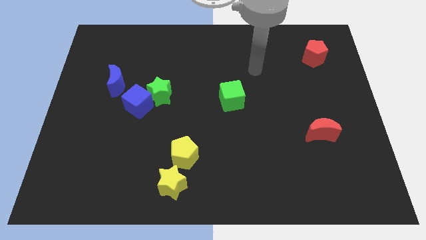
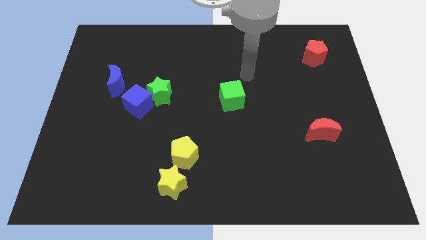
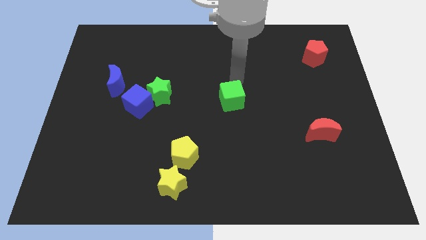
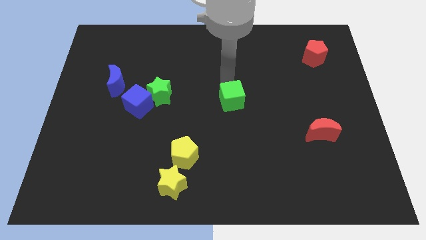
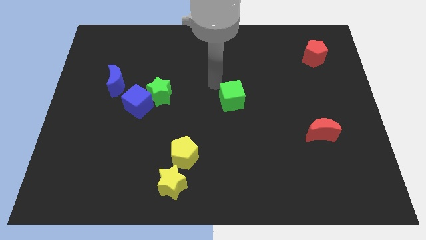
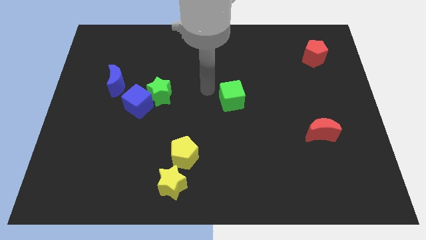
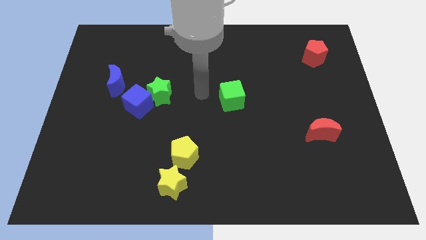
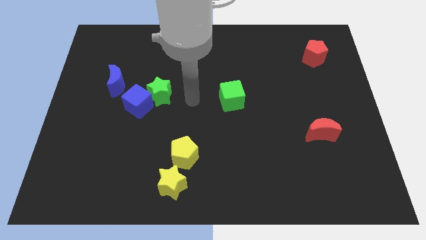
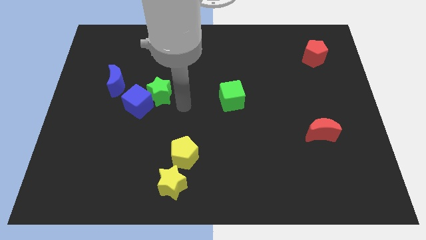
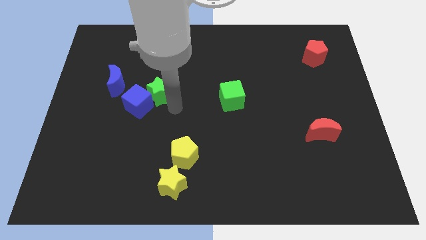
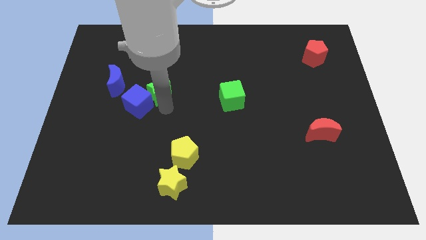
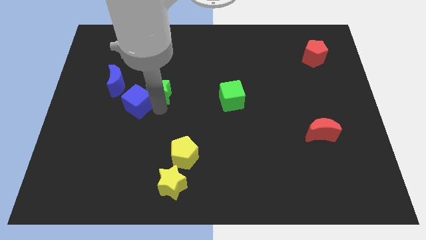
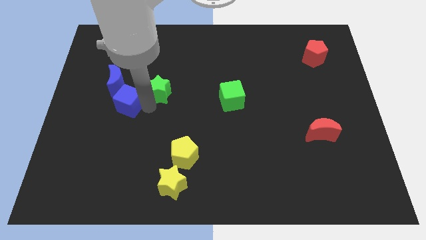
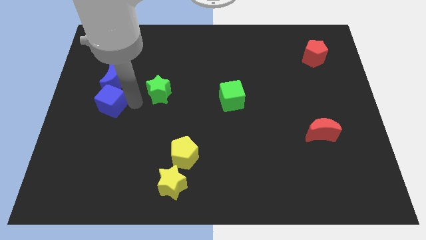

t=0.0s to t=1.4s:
move the green star away from the blue cube

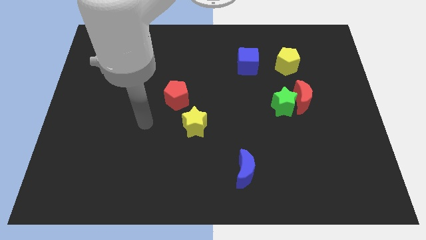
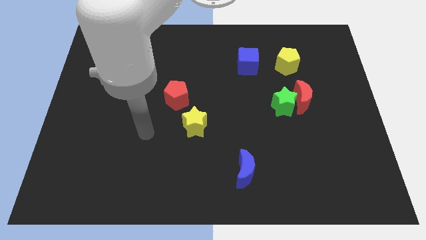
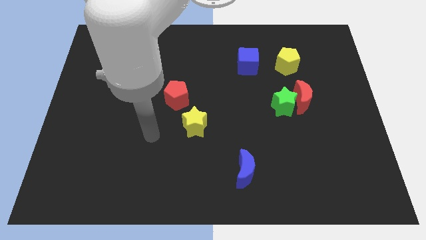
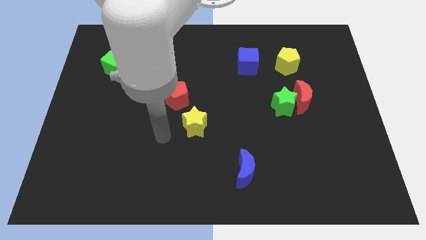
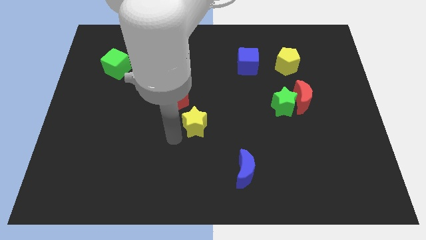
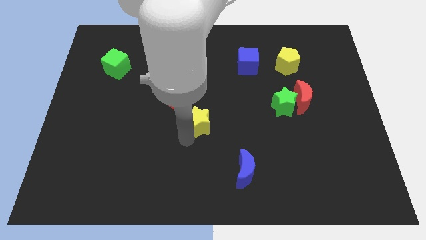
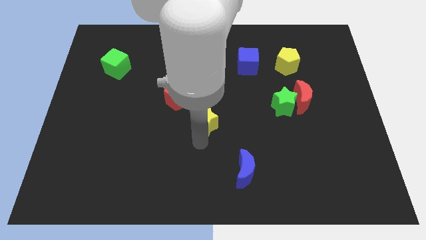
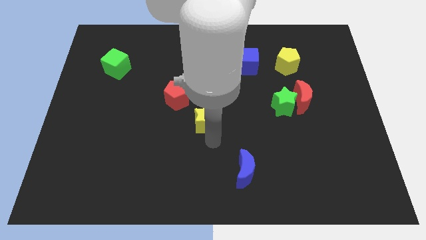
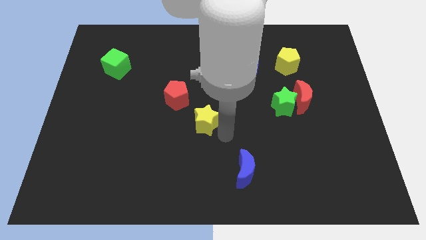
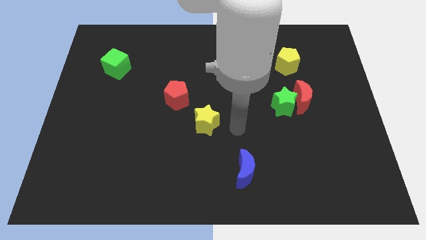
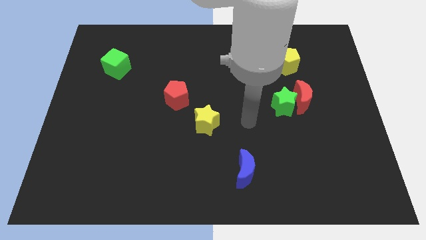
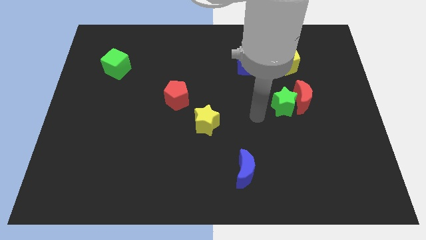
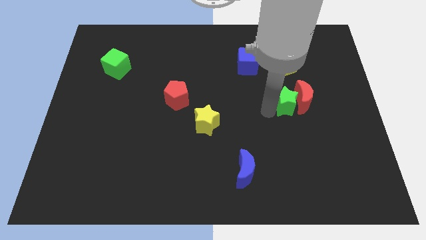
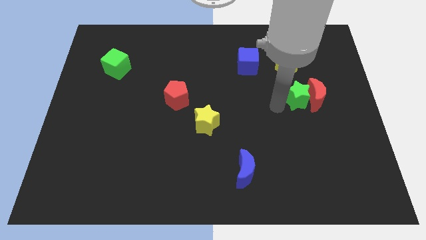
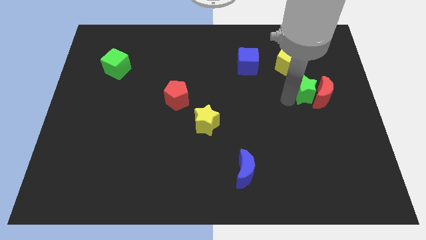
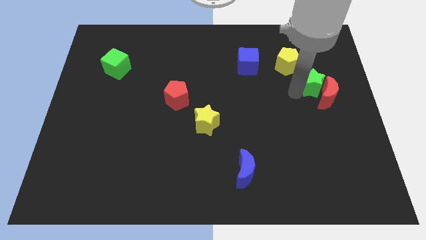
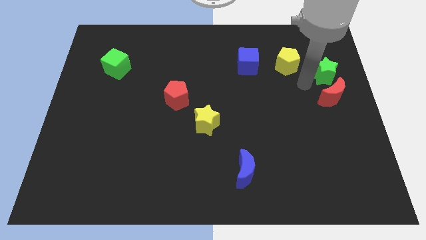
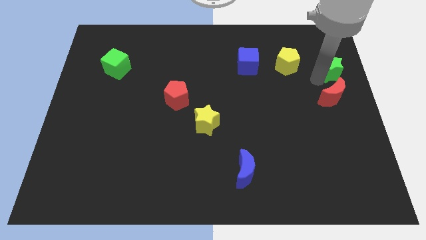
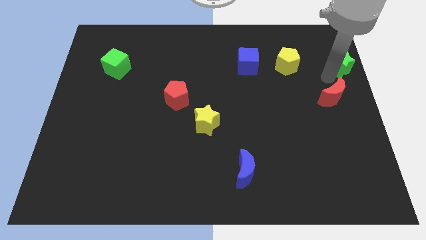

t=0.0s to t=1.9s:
move the red moon away from the green star

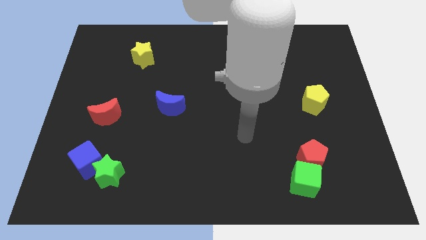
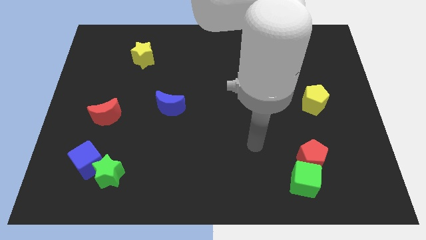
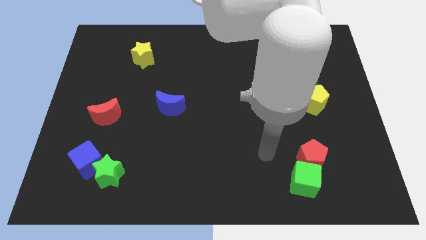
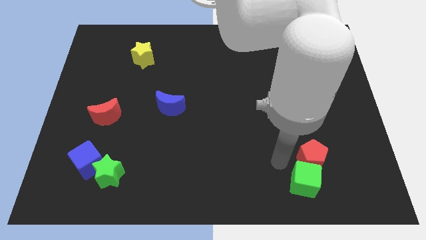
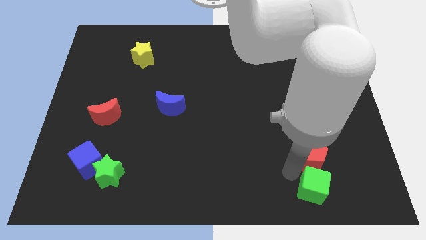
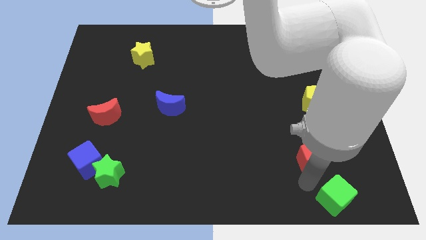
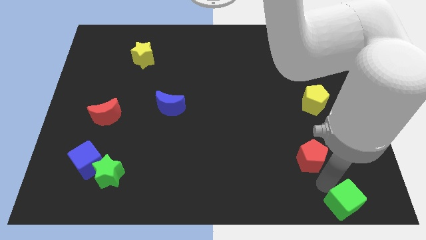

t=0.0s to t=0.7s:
separate the red pentagon from the green cube

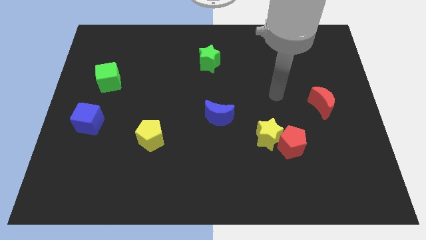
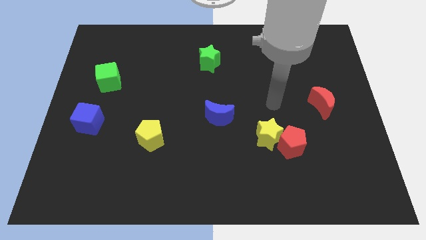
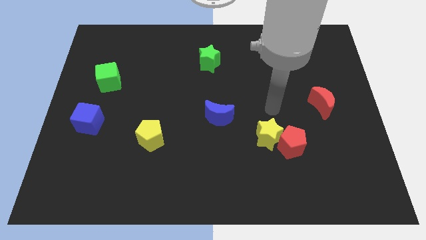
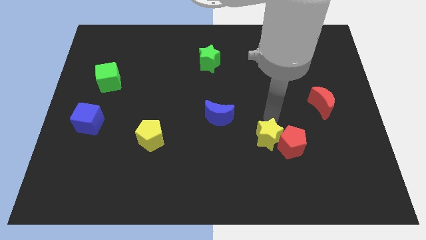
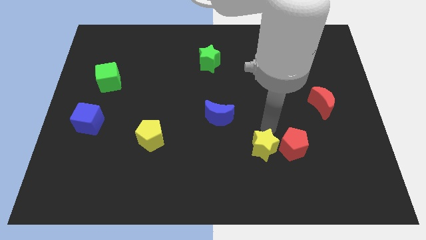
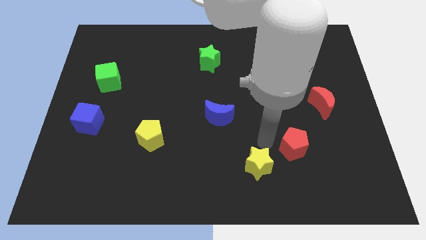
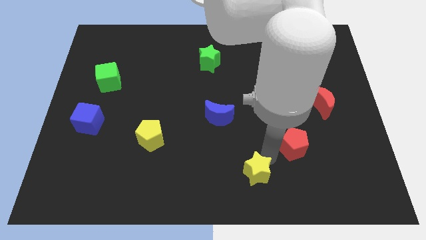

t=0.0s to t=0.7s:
pull the red pentagon apart from the yellow star

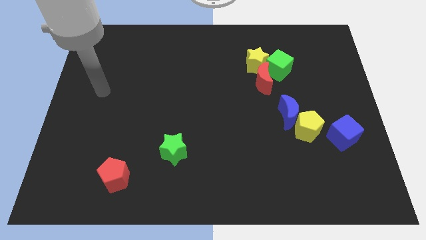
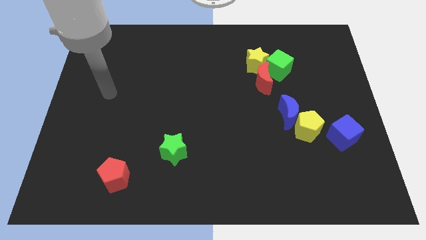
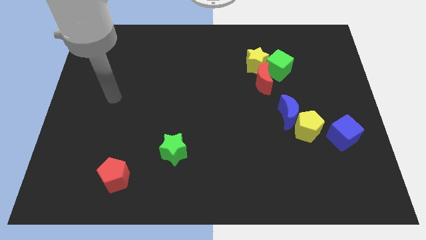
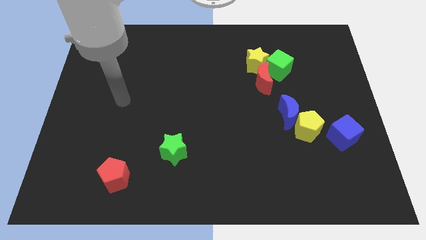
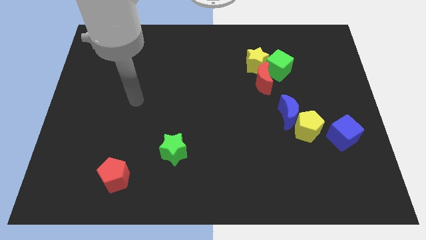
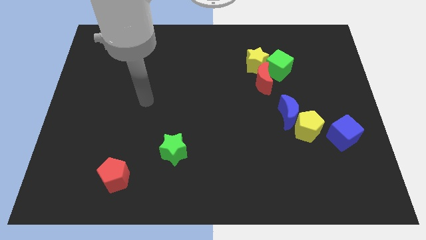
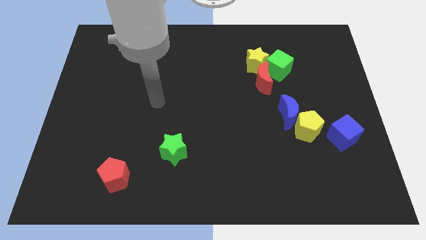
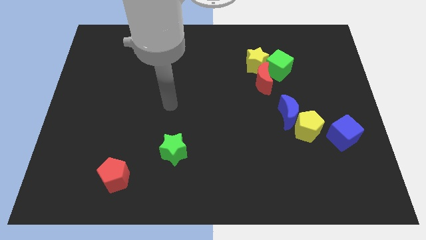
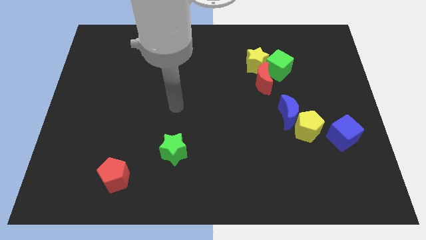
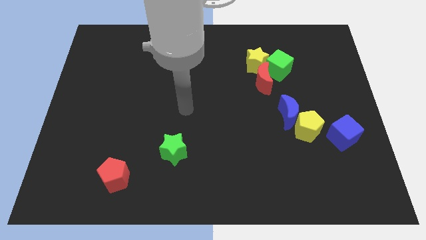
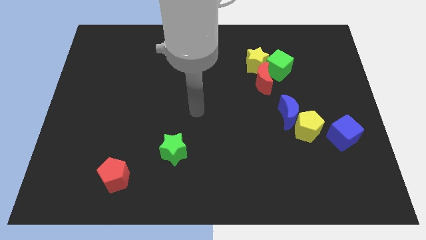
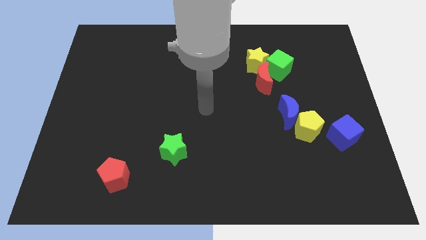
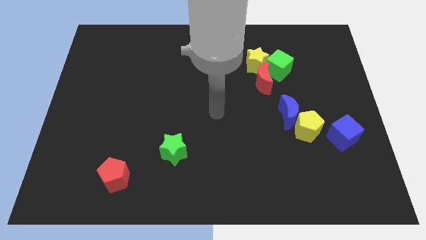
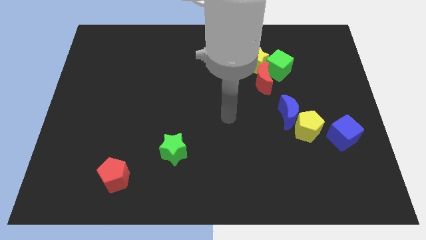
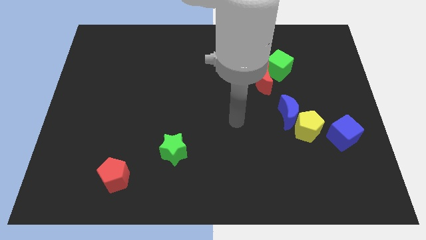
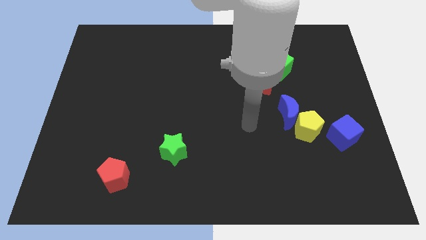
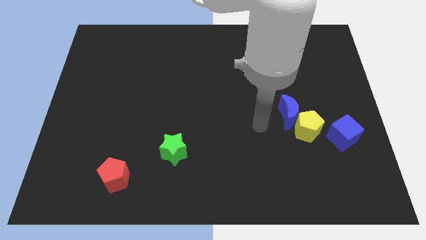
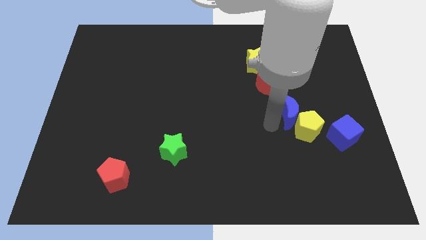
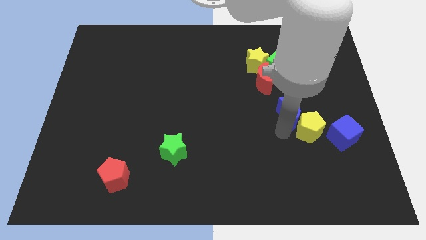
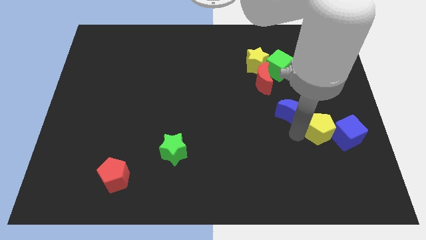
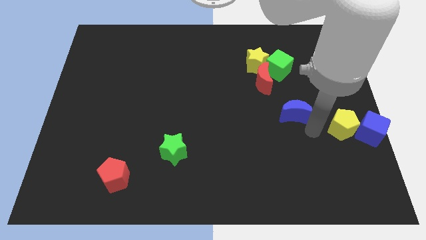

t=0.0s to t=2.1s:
pull the blue moon apart from the yellow pentagon

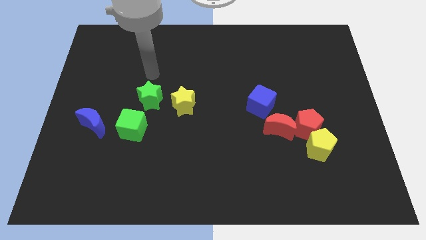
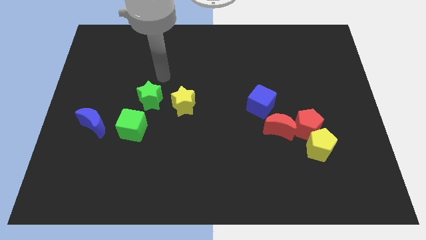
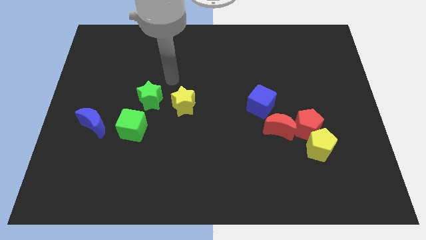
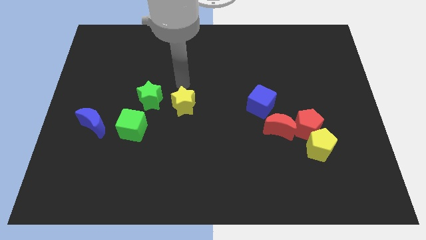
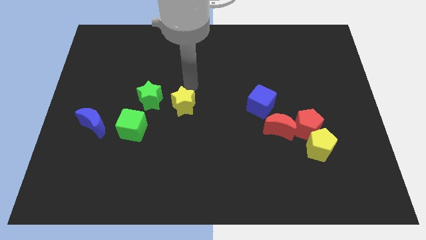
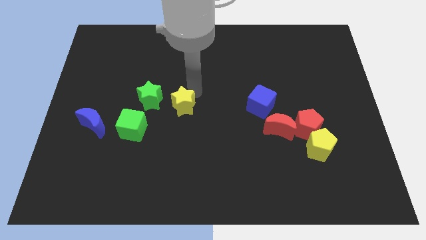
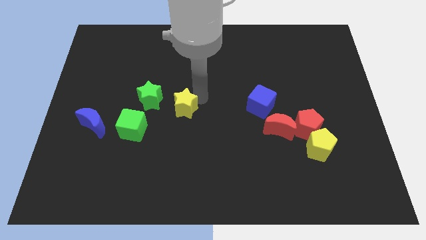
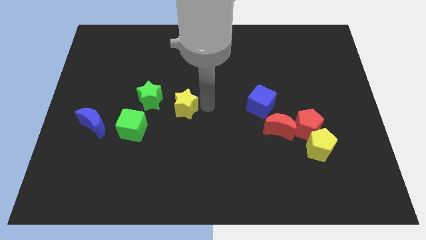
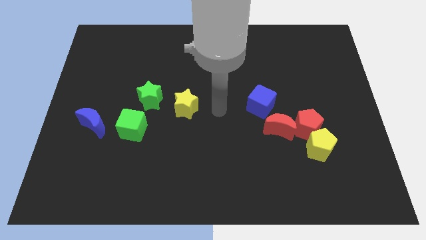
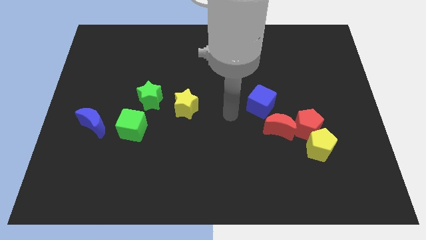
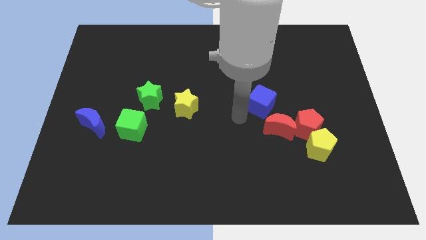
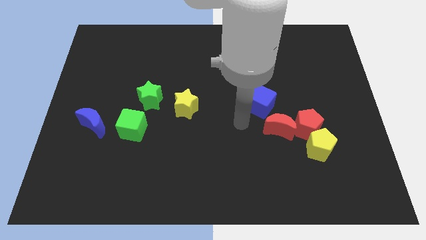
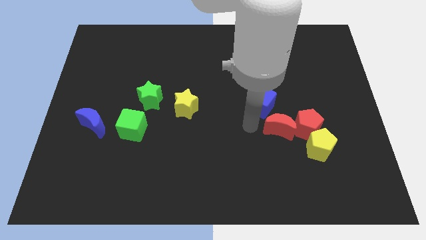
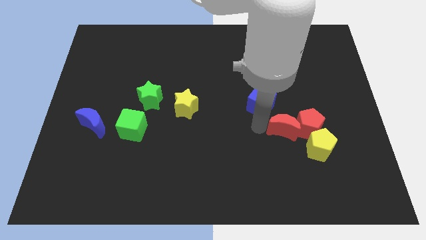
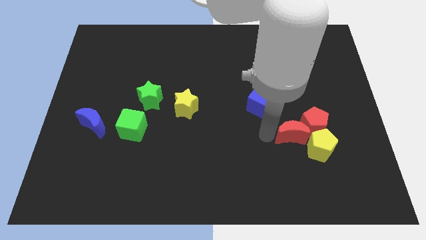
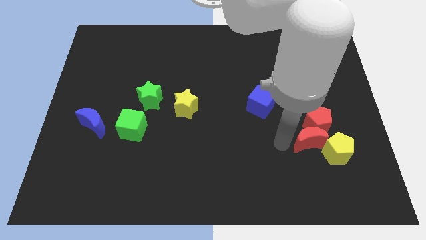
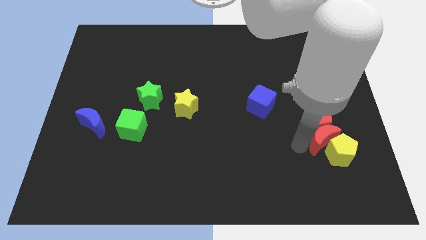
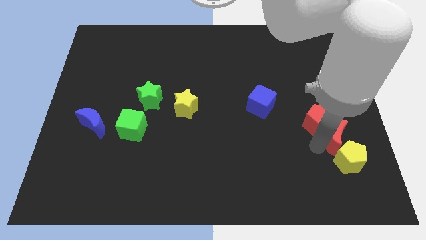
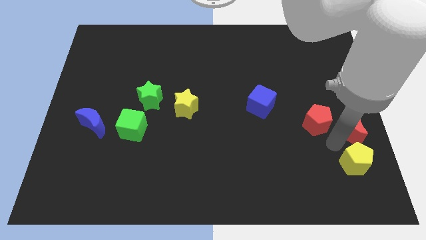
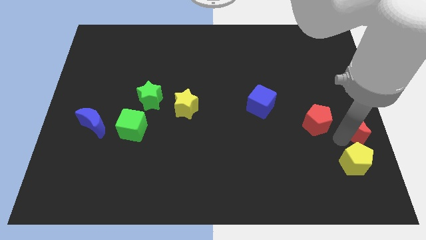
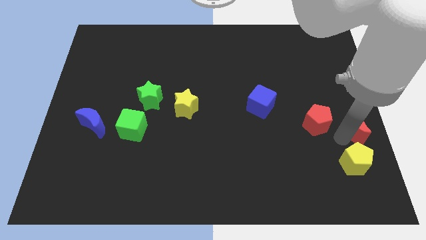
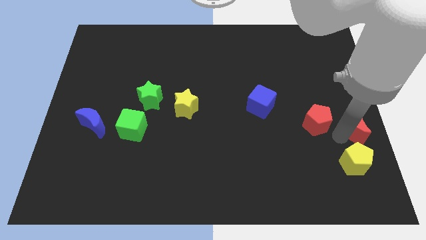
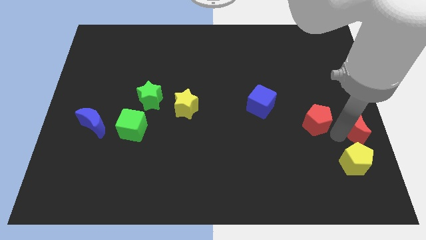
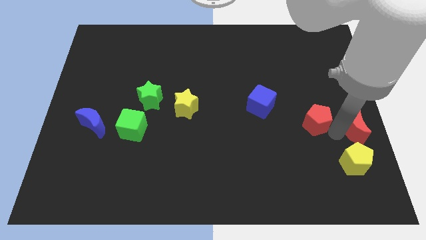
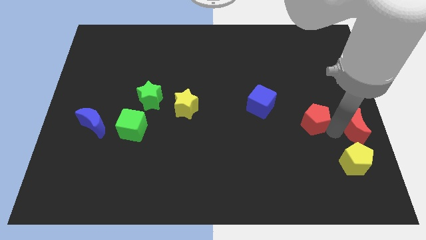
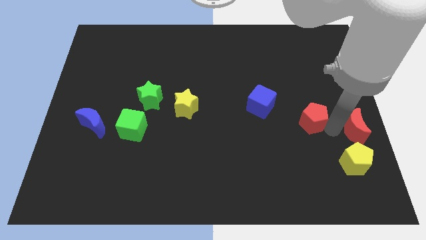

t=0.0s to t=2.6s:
separate the red pentagon from the yellow pentagon and red moon
